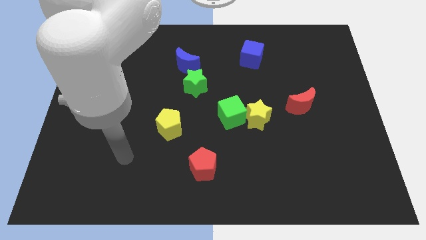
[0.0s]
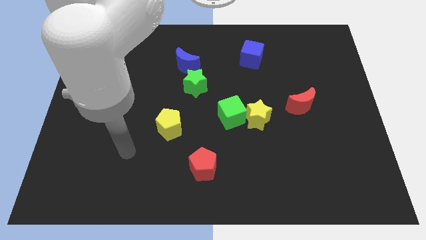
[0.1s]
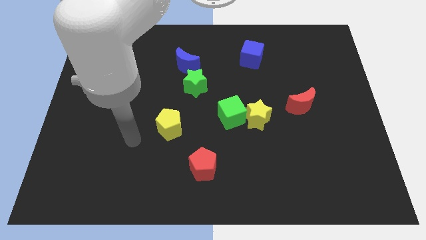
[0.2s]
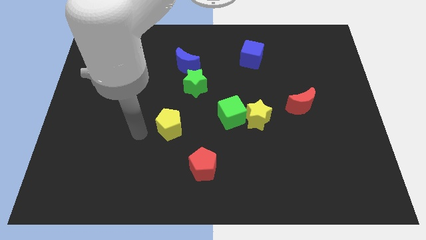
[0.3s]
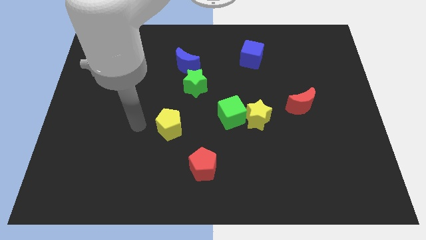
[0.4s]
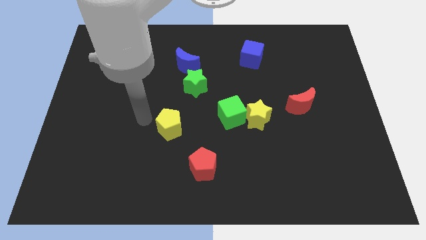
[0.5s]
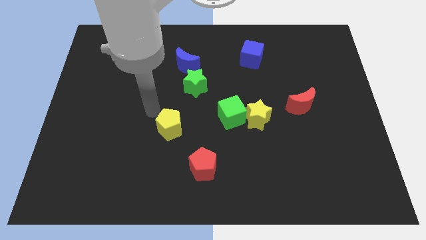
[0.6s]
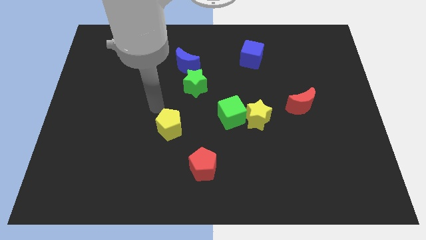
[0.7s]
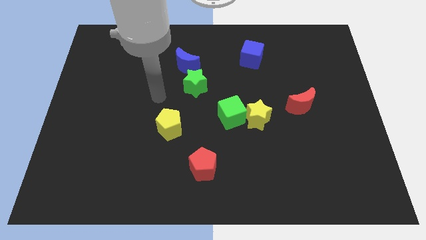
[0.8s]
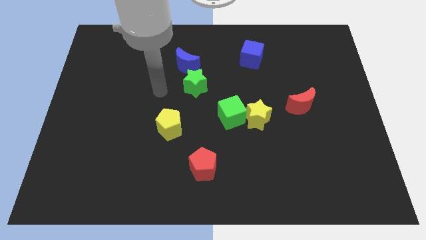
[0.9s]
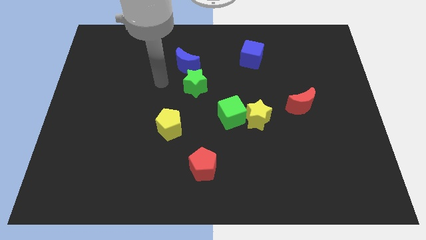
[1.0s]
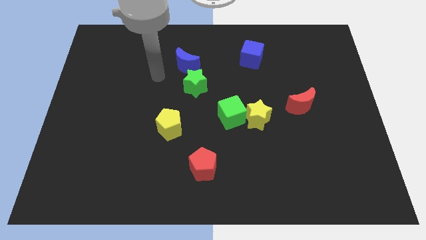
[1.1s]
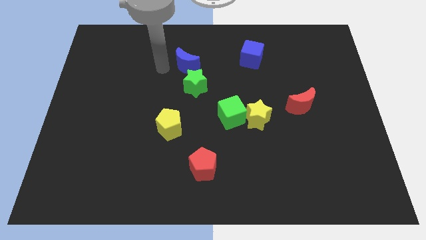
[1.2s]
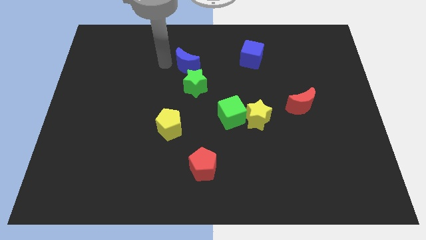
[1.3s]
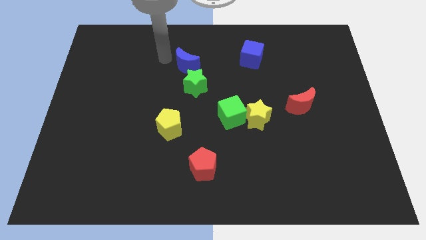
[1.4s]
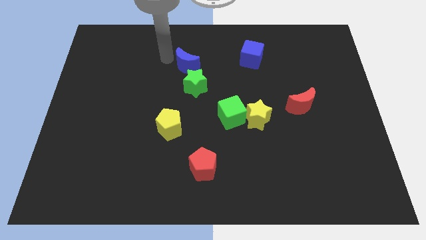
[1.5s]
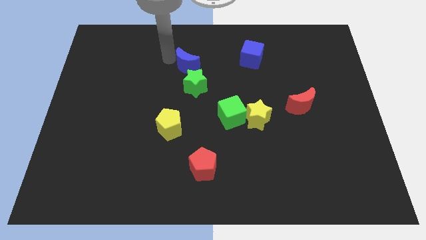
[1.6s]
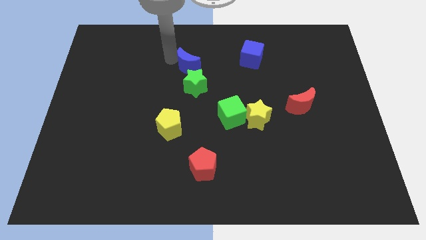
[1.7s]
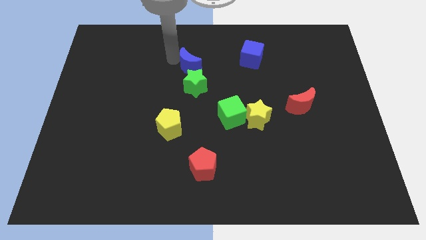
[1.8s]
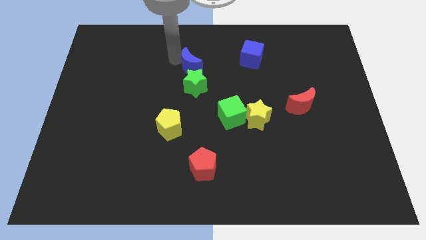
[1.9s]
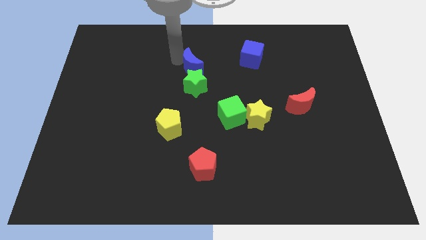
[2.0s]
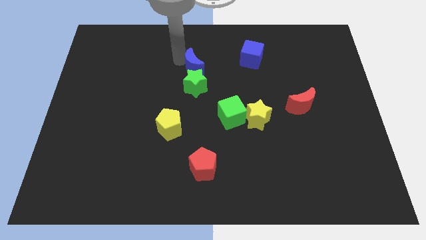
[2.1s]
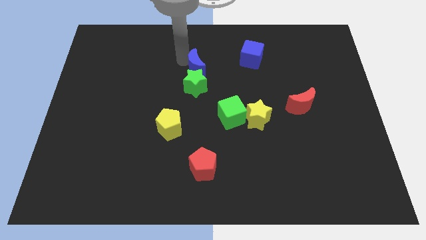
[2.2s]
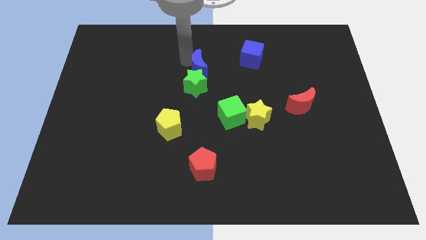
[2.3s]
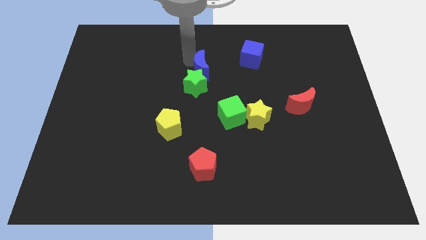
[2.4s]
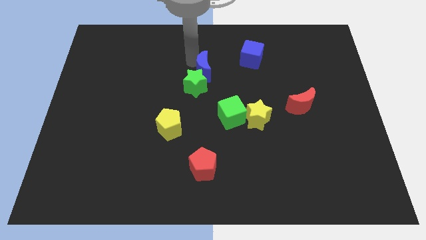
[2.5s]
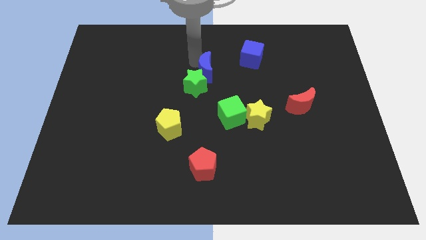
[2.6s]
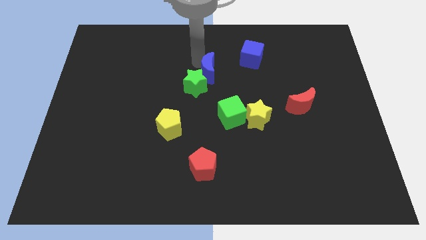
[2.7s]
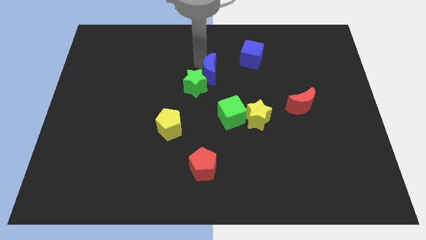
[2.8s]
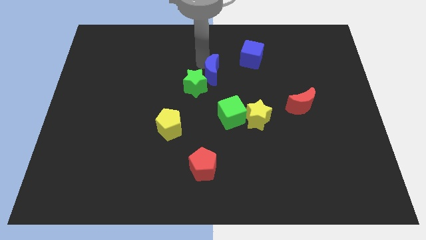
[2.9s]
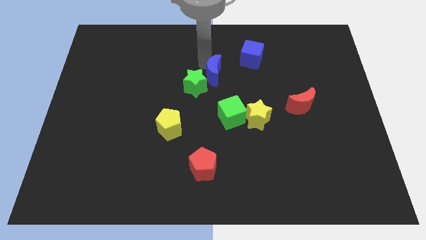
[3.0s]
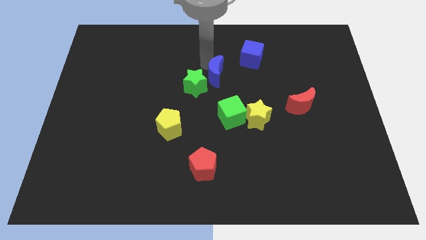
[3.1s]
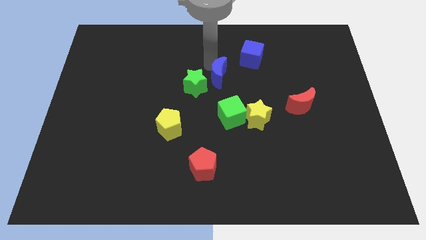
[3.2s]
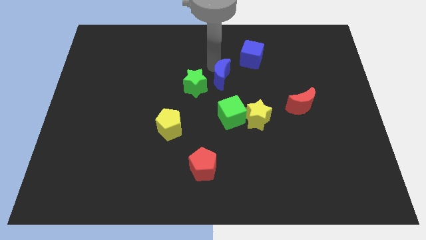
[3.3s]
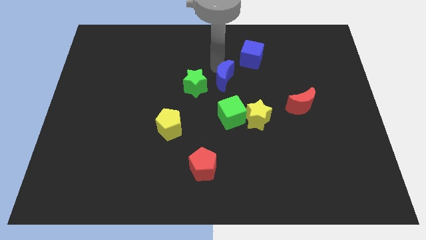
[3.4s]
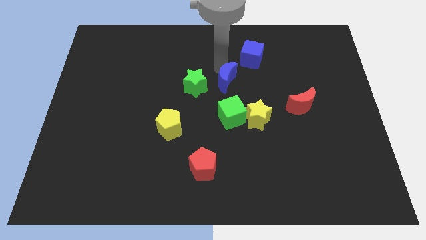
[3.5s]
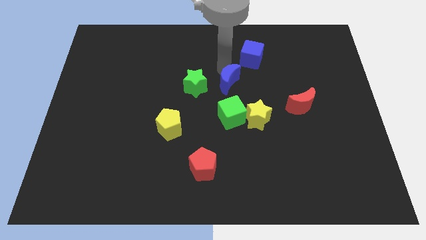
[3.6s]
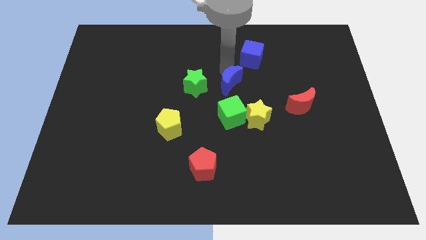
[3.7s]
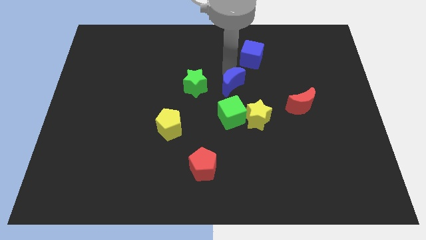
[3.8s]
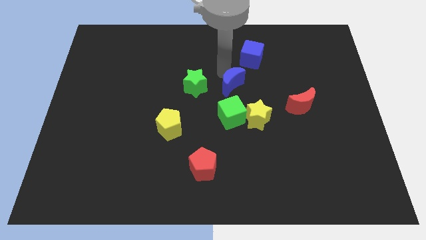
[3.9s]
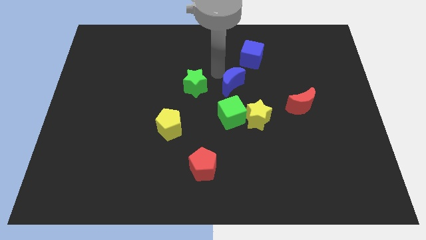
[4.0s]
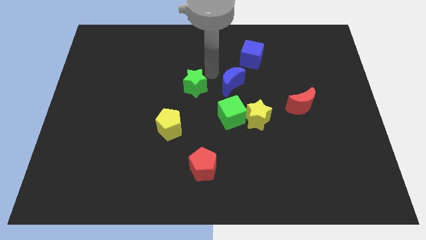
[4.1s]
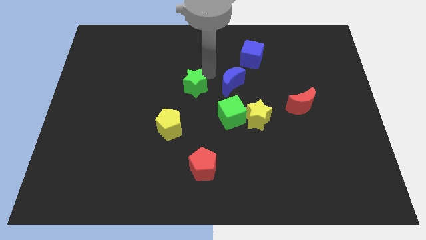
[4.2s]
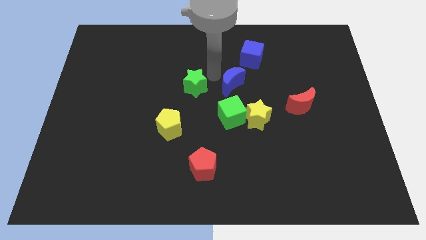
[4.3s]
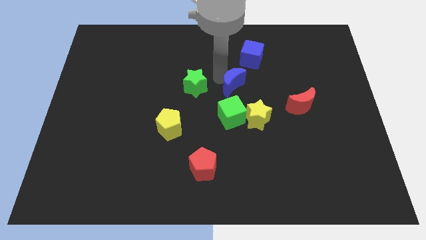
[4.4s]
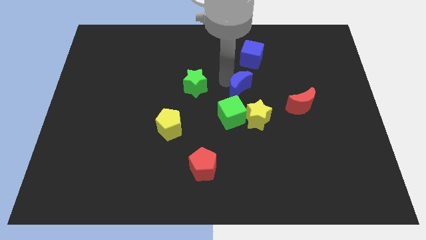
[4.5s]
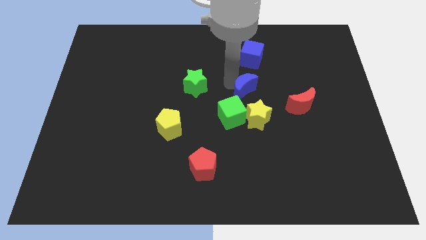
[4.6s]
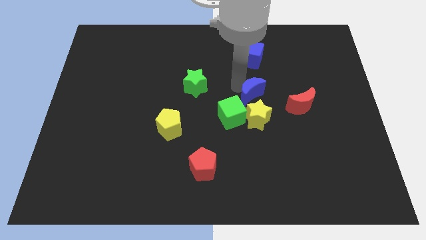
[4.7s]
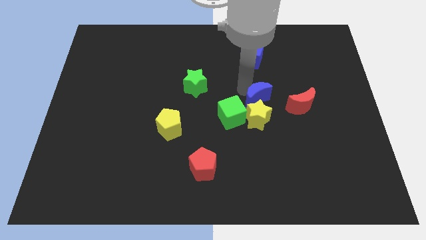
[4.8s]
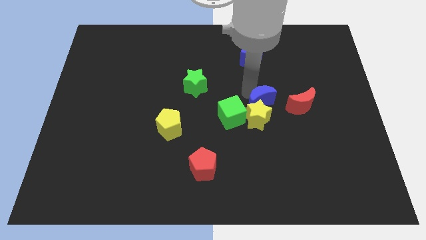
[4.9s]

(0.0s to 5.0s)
slide the blue moon downwards and right diagonally

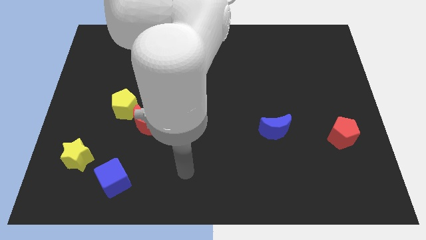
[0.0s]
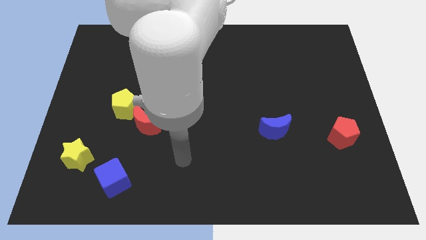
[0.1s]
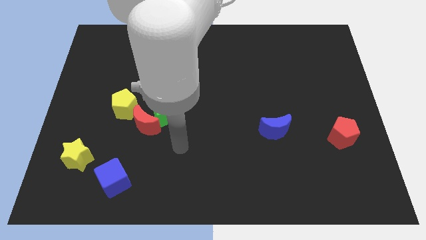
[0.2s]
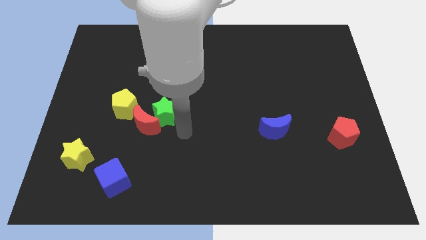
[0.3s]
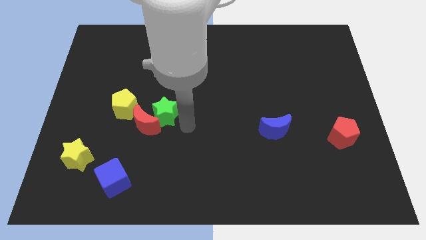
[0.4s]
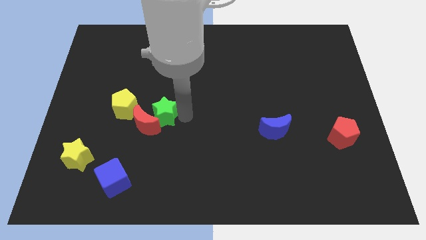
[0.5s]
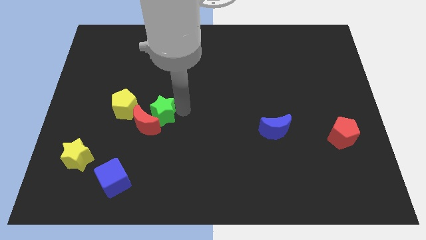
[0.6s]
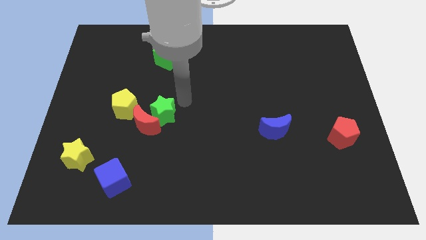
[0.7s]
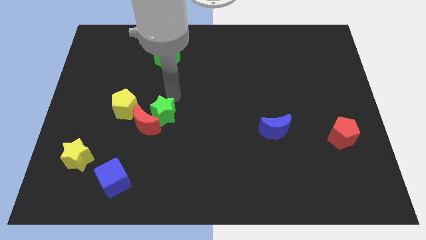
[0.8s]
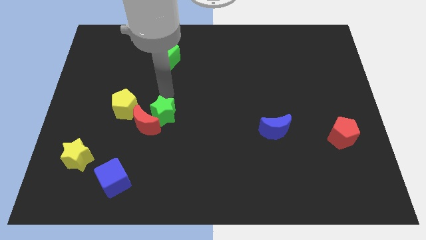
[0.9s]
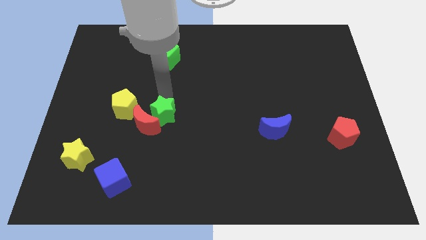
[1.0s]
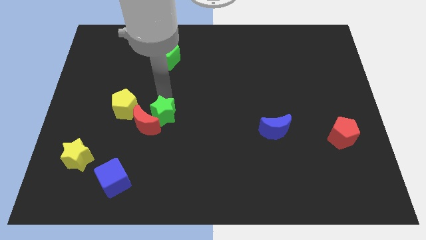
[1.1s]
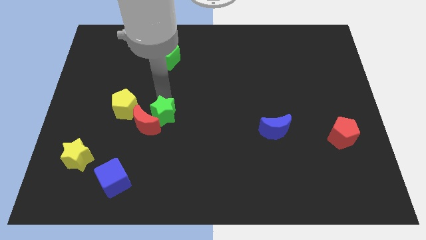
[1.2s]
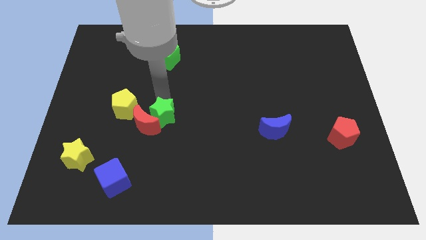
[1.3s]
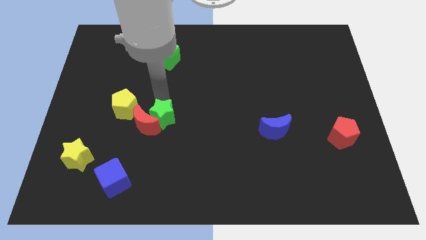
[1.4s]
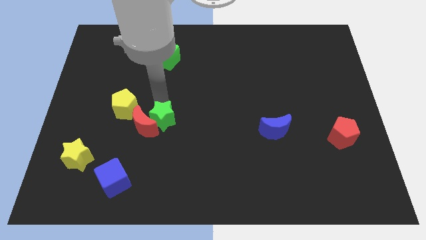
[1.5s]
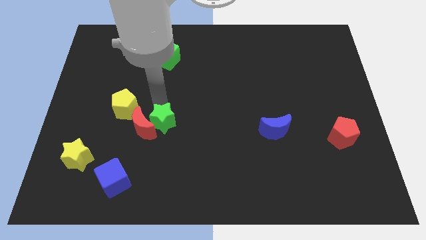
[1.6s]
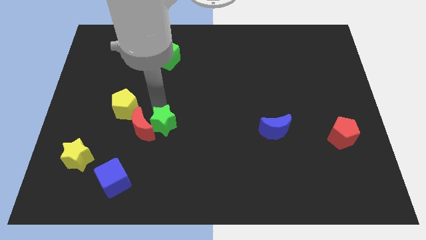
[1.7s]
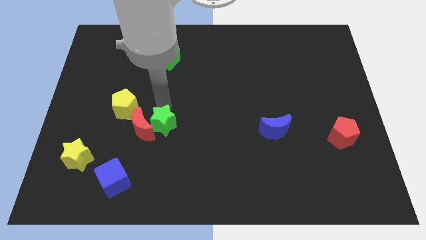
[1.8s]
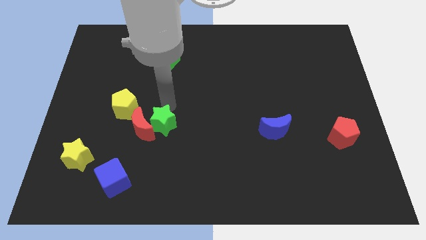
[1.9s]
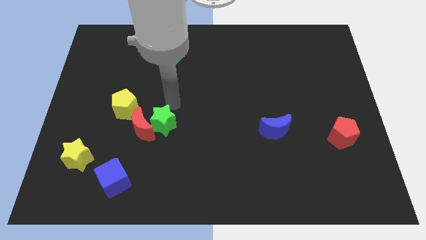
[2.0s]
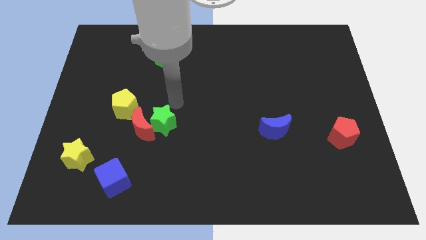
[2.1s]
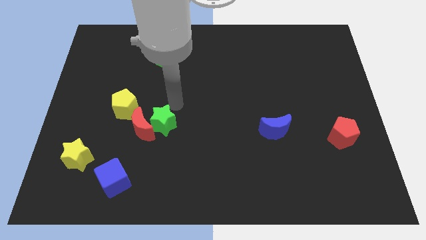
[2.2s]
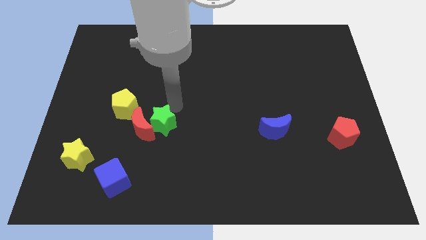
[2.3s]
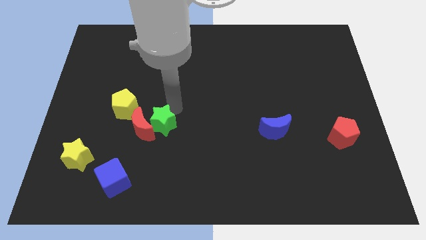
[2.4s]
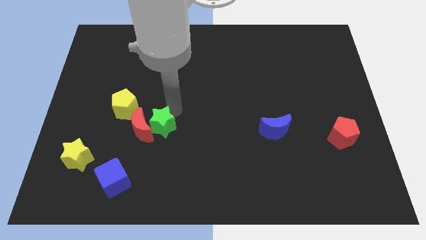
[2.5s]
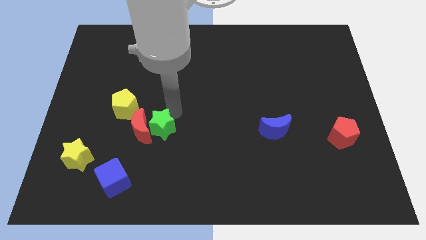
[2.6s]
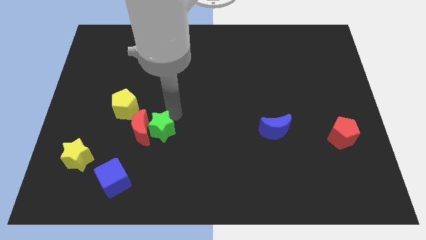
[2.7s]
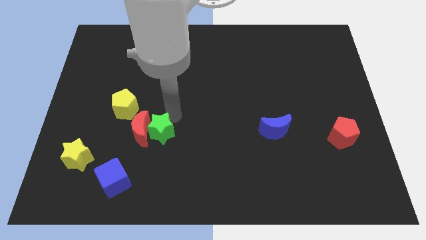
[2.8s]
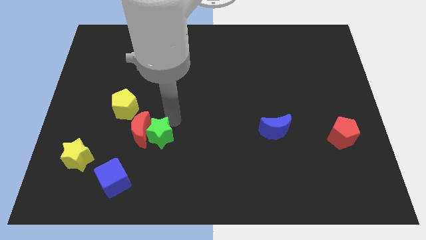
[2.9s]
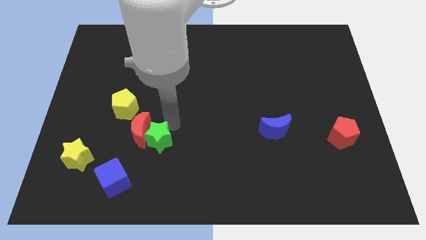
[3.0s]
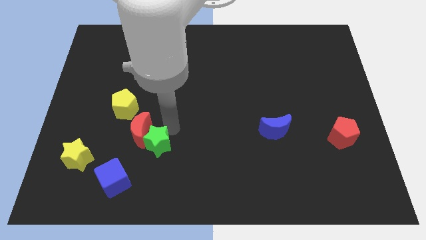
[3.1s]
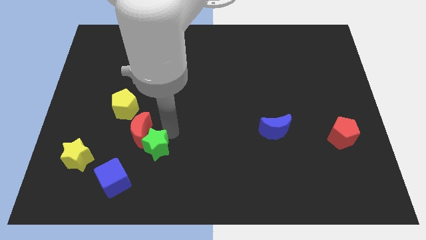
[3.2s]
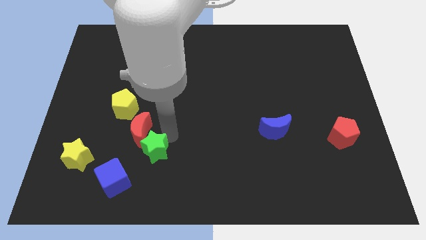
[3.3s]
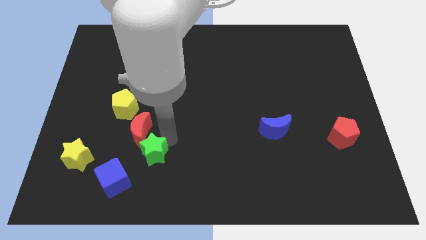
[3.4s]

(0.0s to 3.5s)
push the green star a little bit down and left
